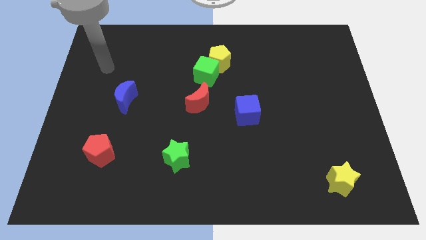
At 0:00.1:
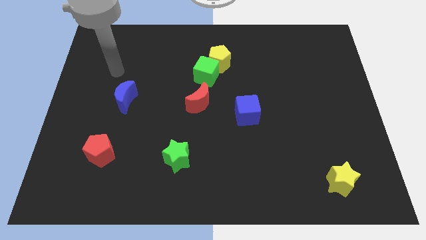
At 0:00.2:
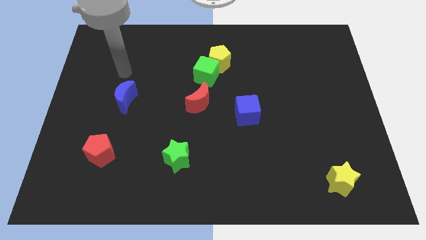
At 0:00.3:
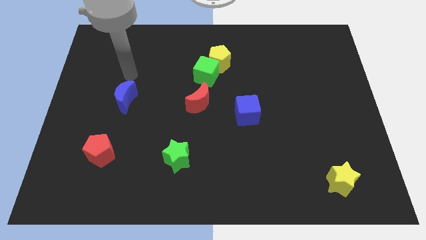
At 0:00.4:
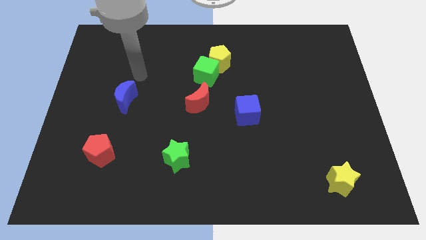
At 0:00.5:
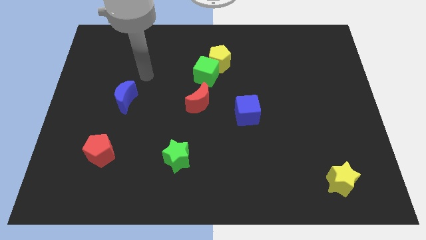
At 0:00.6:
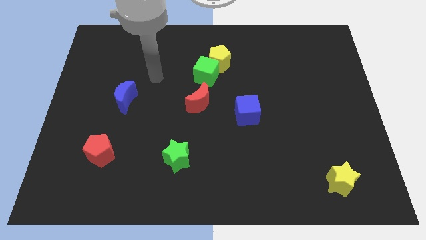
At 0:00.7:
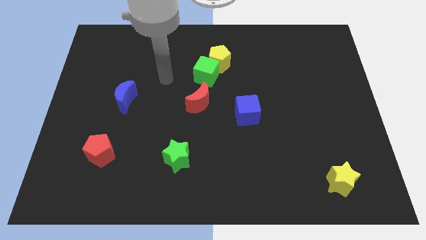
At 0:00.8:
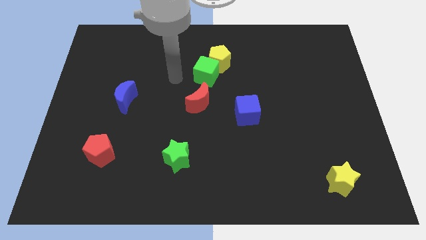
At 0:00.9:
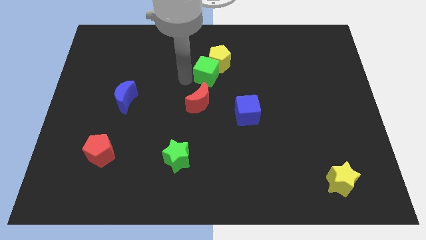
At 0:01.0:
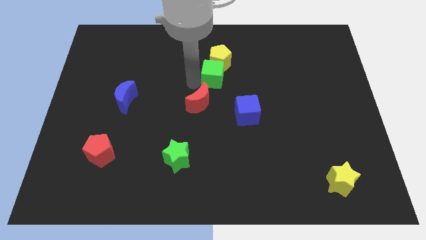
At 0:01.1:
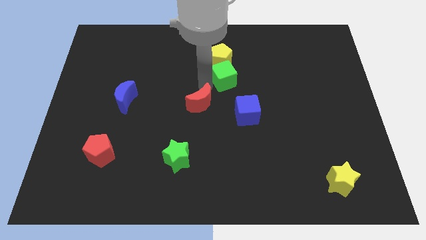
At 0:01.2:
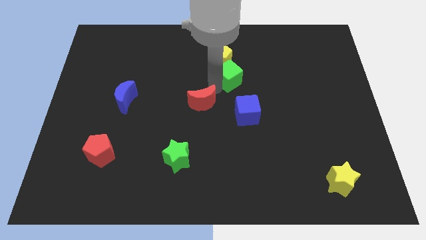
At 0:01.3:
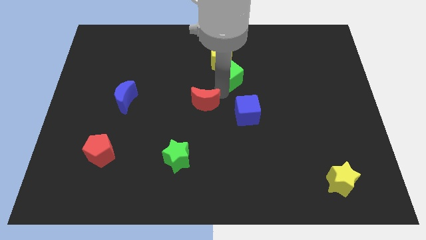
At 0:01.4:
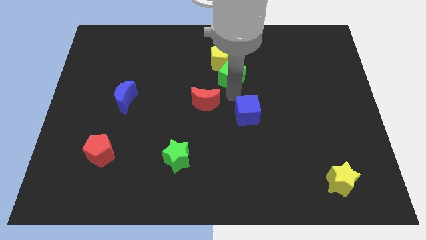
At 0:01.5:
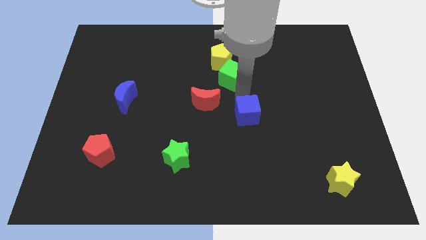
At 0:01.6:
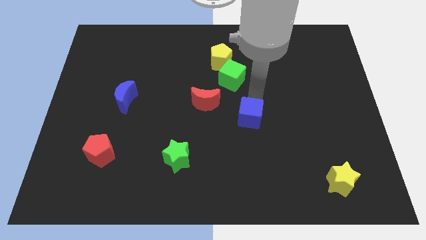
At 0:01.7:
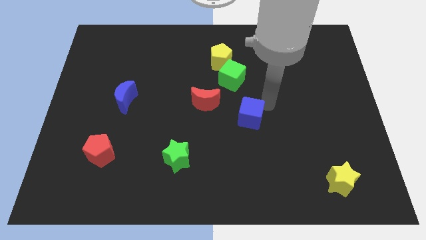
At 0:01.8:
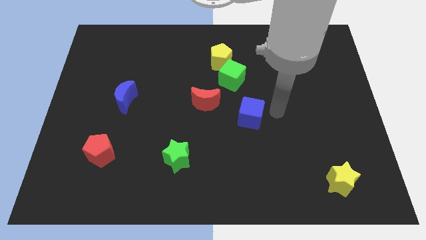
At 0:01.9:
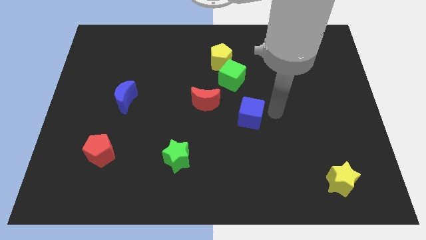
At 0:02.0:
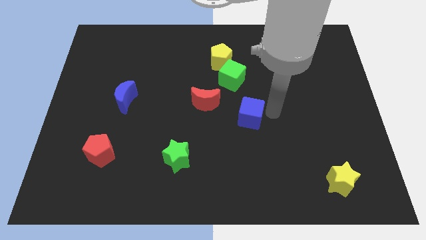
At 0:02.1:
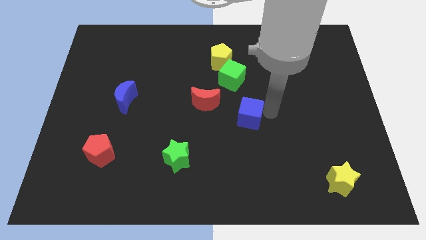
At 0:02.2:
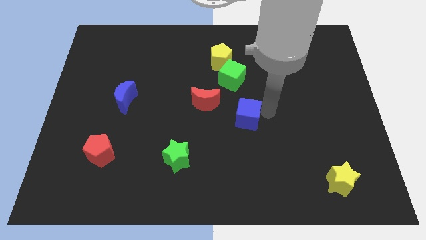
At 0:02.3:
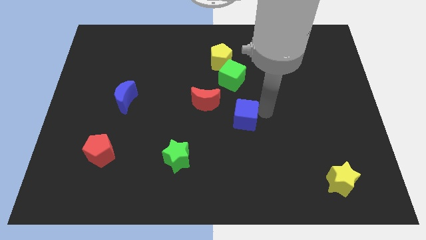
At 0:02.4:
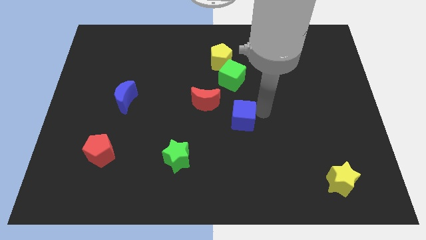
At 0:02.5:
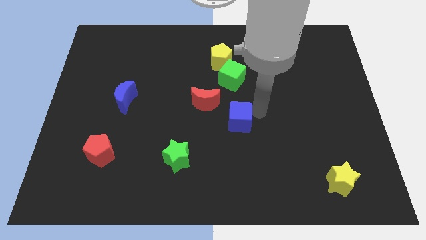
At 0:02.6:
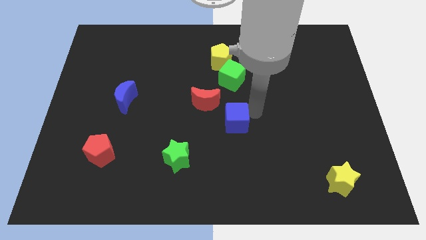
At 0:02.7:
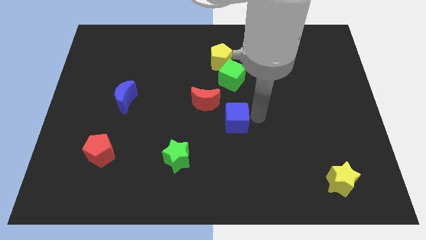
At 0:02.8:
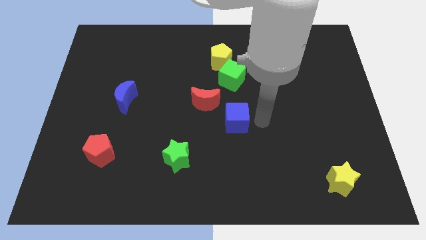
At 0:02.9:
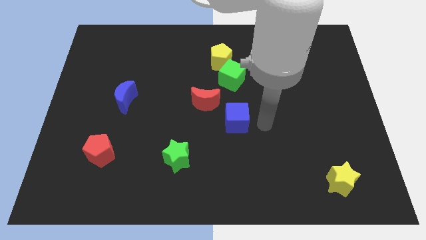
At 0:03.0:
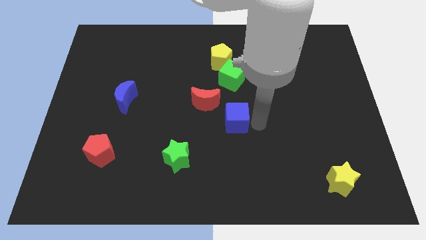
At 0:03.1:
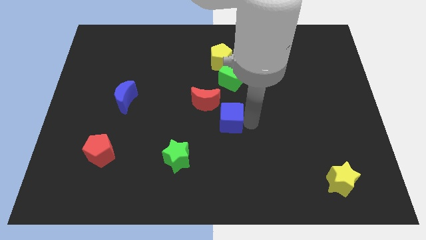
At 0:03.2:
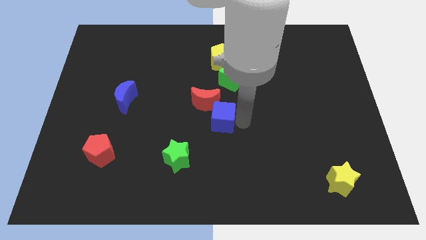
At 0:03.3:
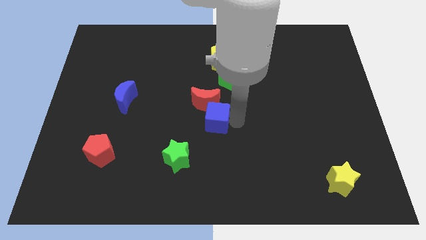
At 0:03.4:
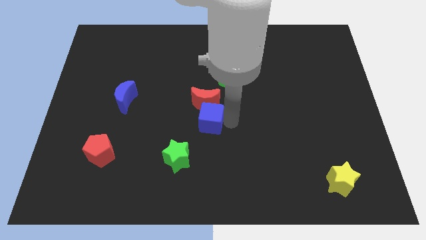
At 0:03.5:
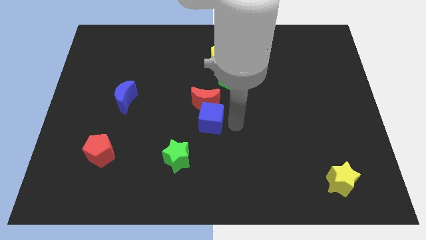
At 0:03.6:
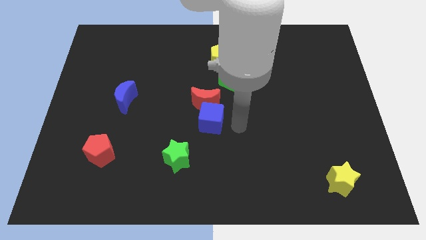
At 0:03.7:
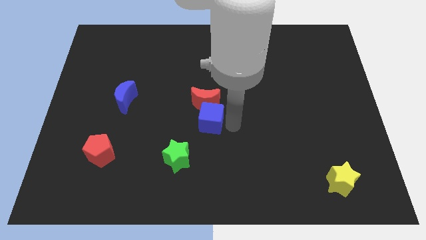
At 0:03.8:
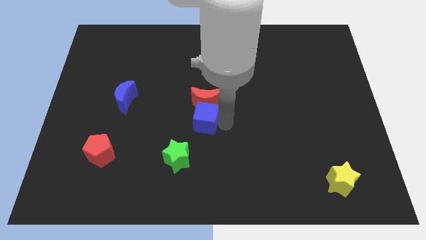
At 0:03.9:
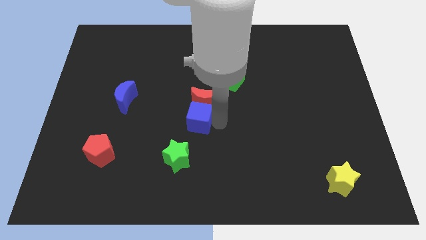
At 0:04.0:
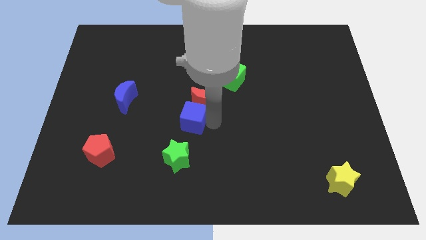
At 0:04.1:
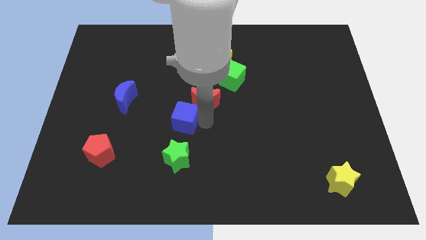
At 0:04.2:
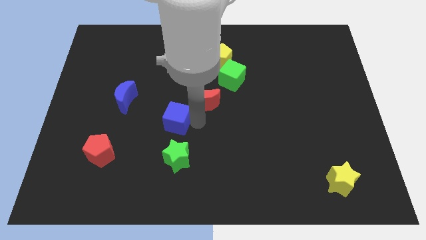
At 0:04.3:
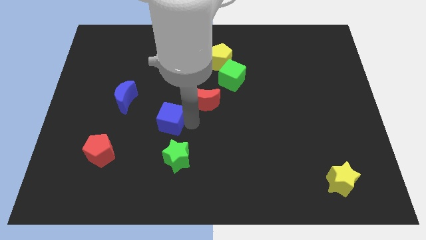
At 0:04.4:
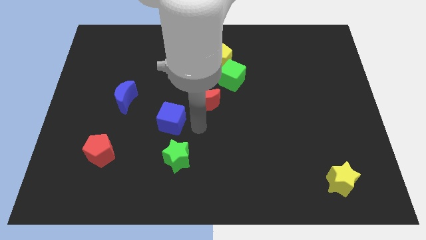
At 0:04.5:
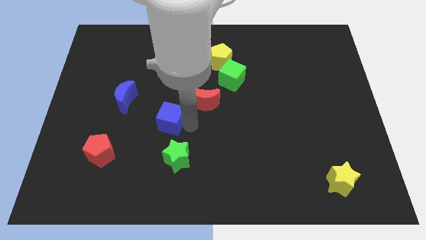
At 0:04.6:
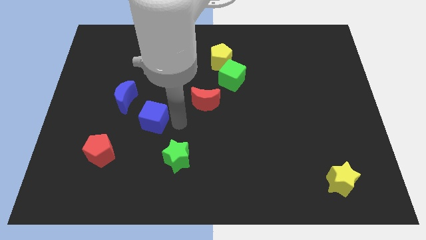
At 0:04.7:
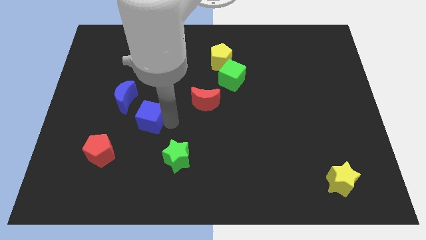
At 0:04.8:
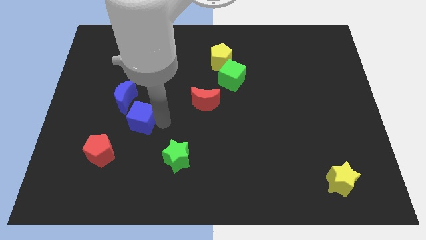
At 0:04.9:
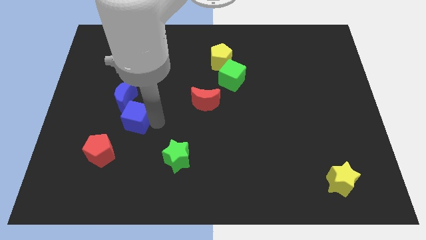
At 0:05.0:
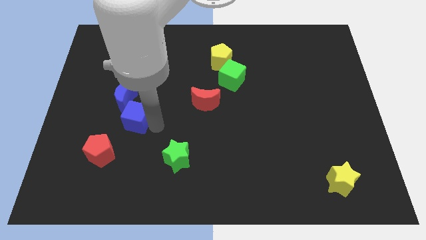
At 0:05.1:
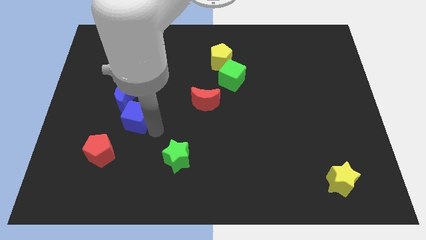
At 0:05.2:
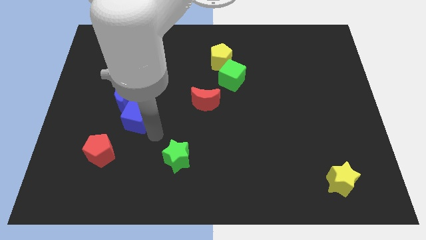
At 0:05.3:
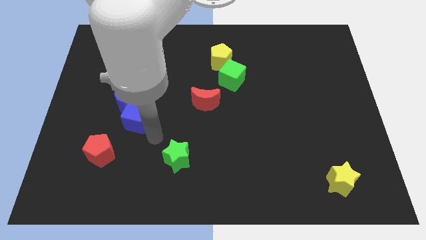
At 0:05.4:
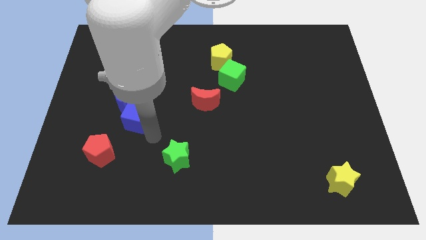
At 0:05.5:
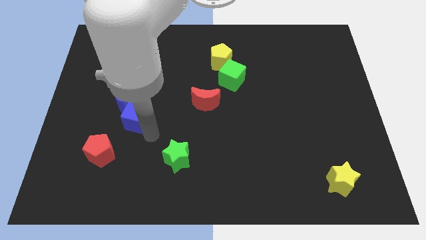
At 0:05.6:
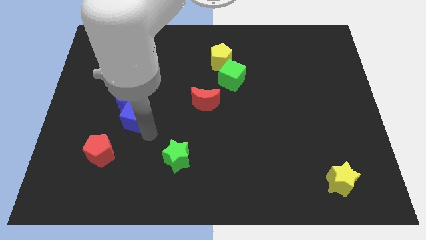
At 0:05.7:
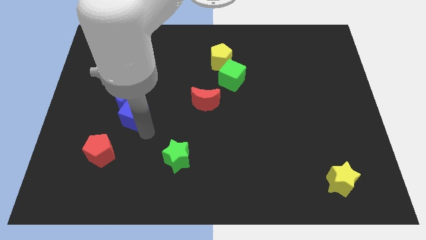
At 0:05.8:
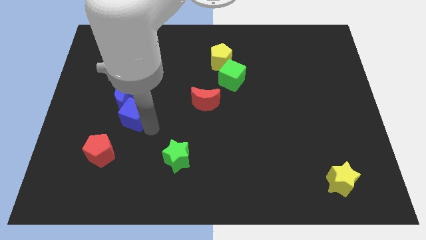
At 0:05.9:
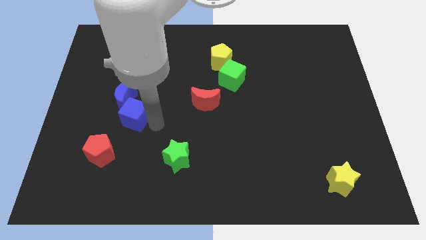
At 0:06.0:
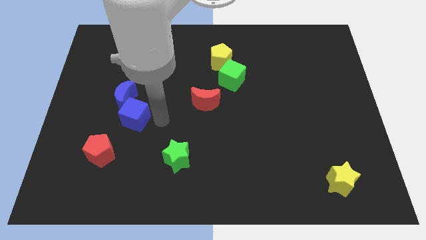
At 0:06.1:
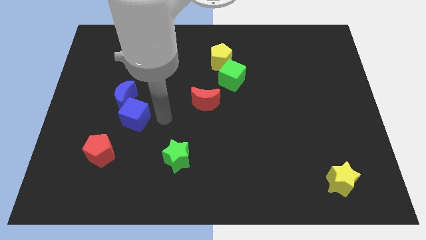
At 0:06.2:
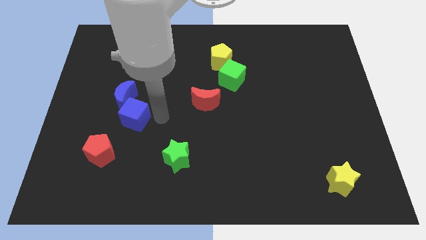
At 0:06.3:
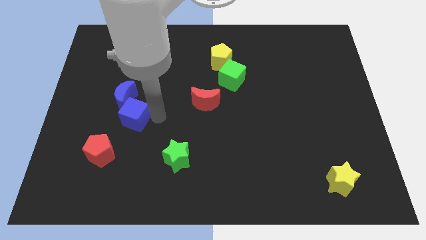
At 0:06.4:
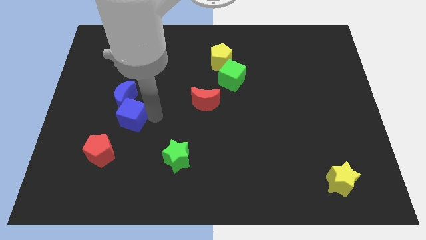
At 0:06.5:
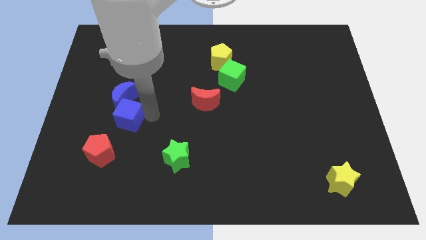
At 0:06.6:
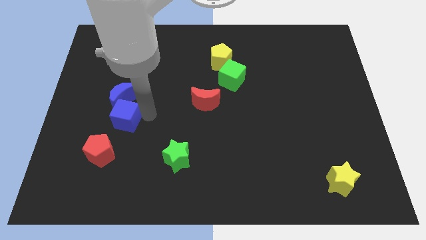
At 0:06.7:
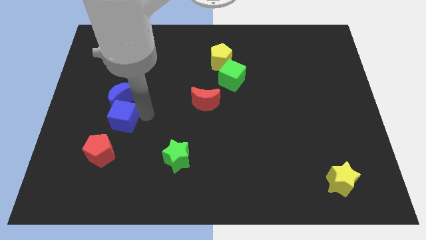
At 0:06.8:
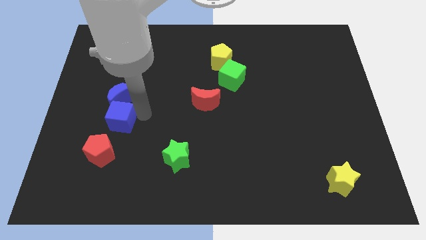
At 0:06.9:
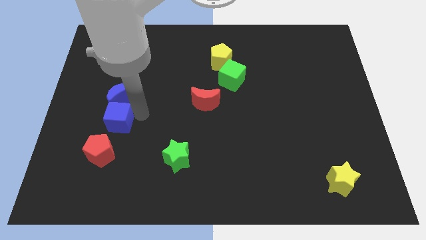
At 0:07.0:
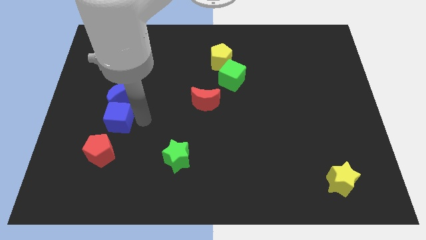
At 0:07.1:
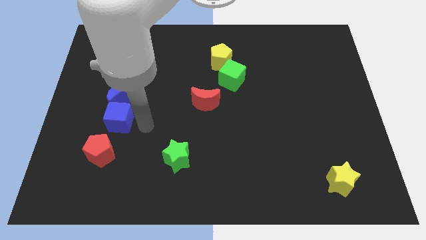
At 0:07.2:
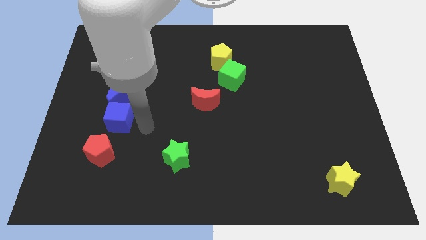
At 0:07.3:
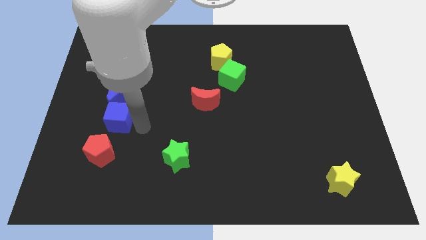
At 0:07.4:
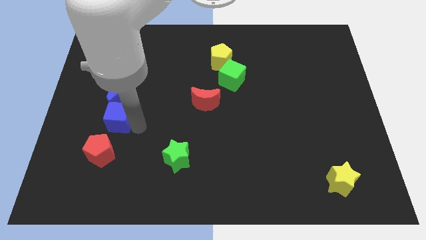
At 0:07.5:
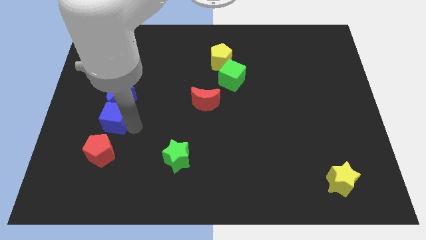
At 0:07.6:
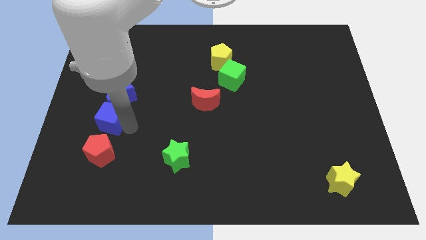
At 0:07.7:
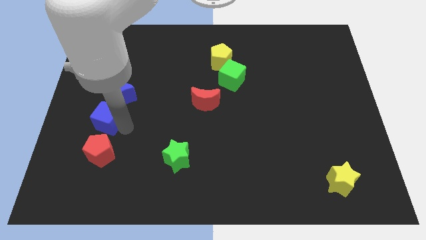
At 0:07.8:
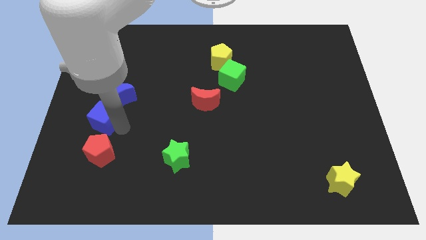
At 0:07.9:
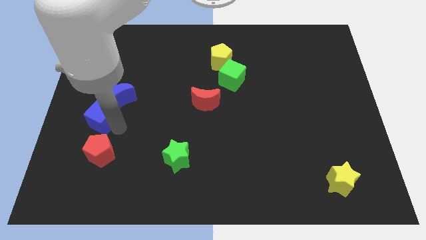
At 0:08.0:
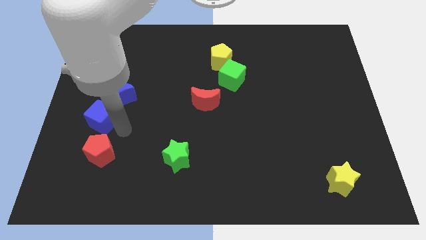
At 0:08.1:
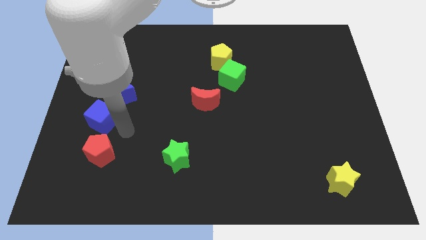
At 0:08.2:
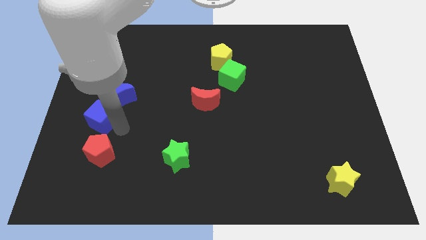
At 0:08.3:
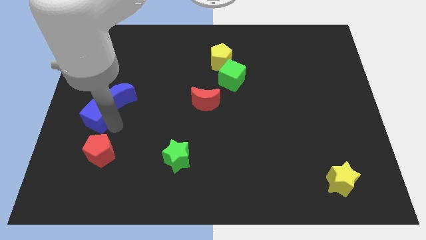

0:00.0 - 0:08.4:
push the blue cube to the left side
